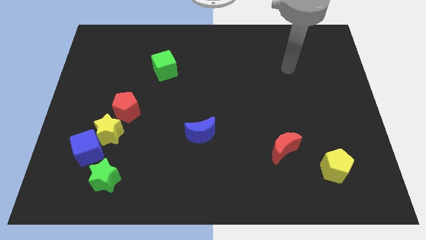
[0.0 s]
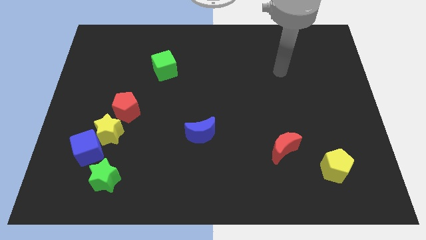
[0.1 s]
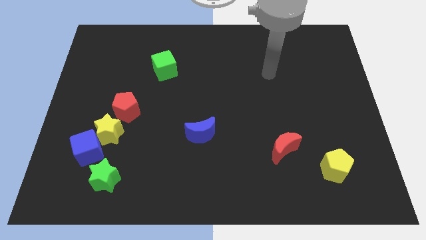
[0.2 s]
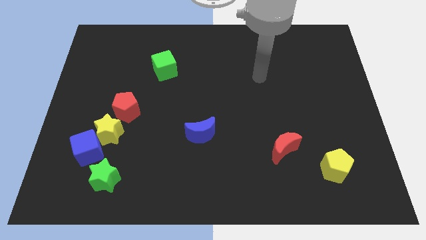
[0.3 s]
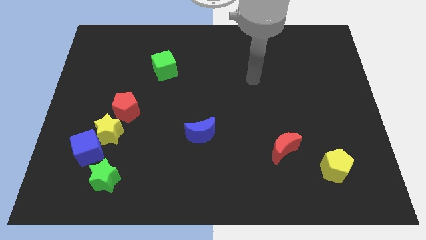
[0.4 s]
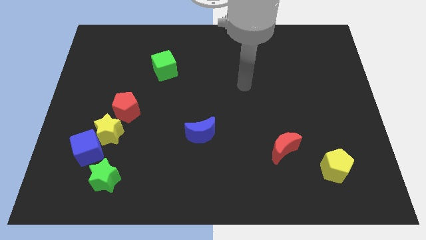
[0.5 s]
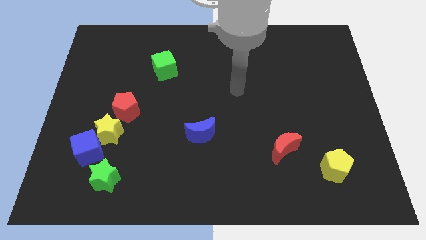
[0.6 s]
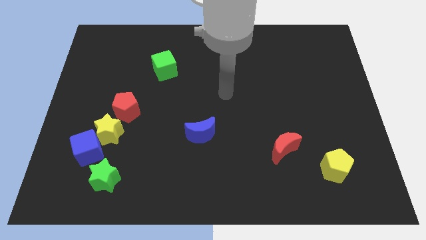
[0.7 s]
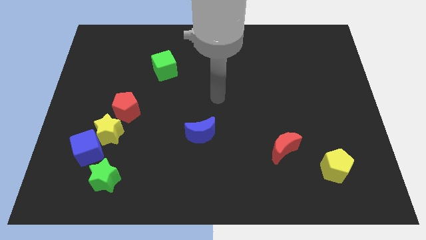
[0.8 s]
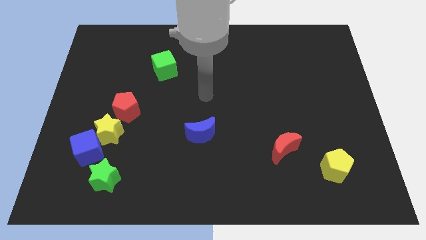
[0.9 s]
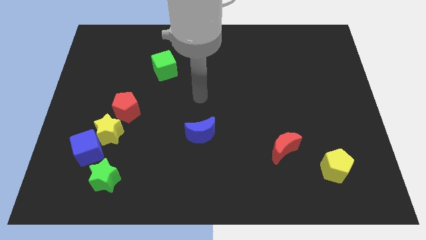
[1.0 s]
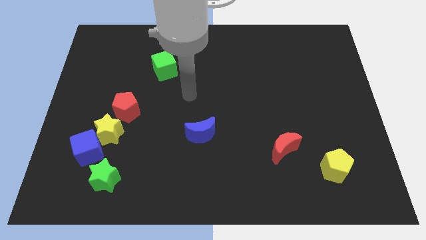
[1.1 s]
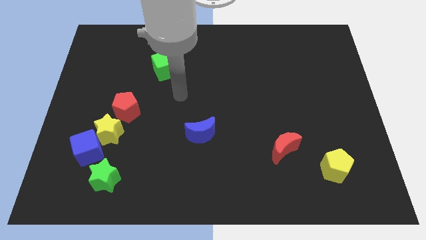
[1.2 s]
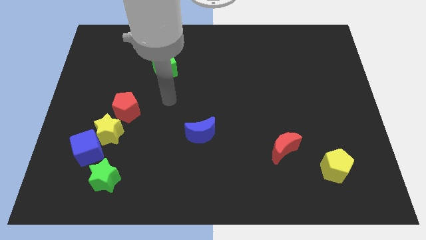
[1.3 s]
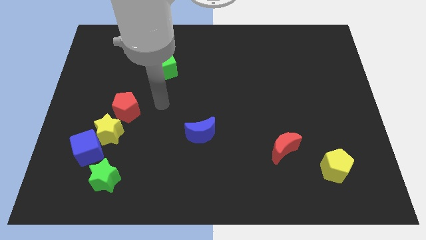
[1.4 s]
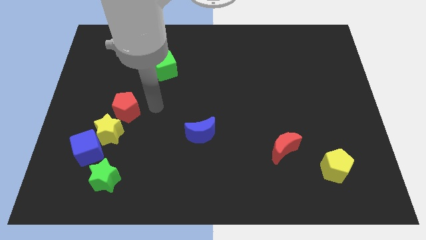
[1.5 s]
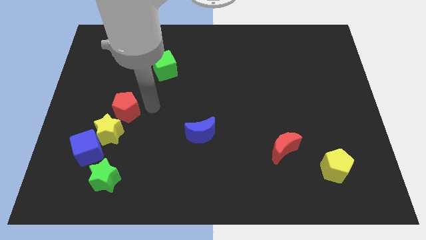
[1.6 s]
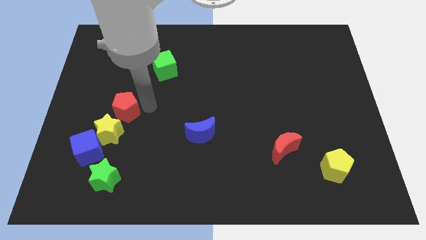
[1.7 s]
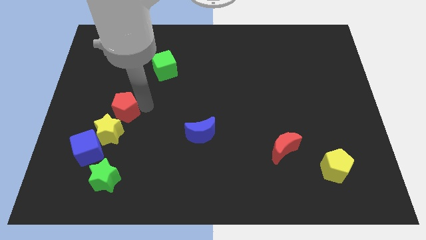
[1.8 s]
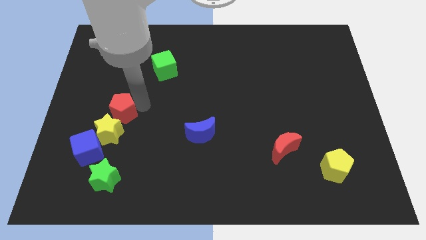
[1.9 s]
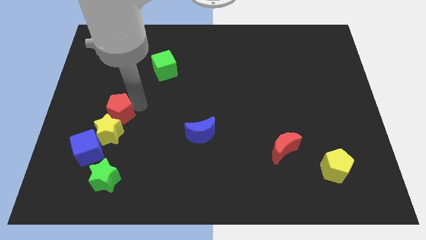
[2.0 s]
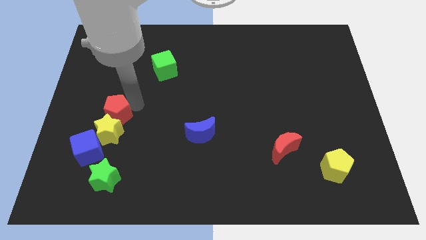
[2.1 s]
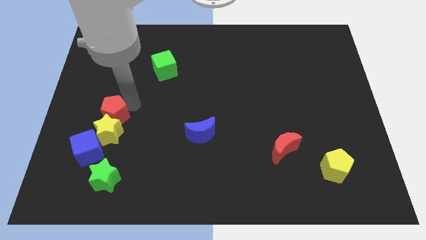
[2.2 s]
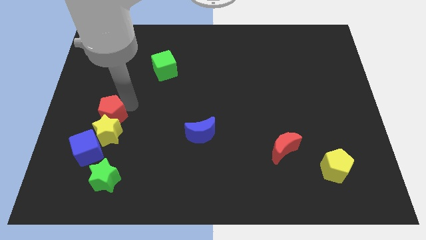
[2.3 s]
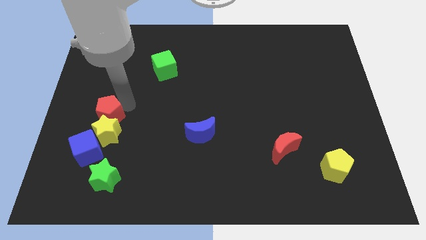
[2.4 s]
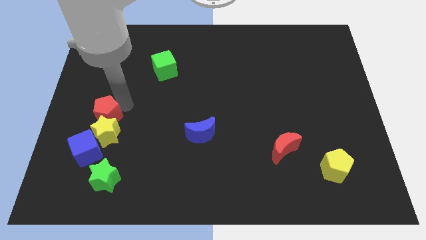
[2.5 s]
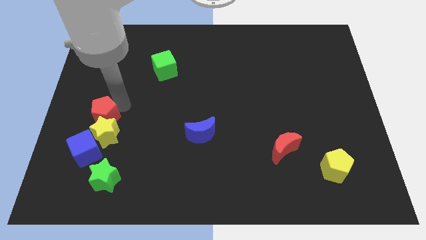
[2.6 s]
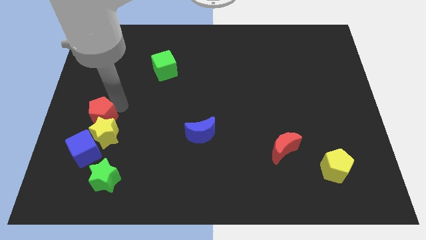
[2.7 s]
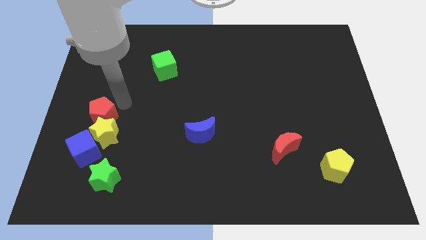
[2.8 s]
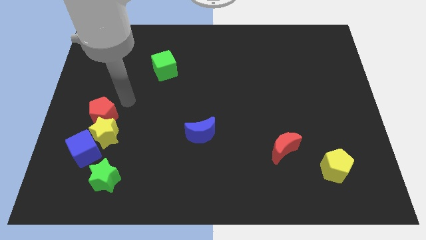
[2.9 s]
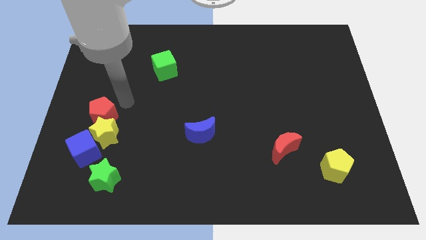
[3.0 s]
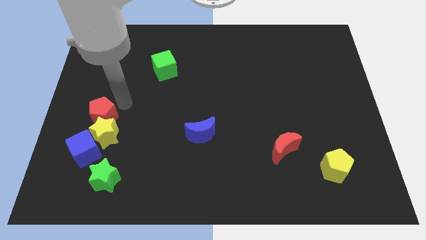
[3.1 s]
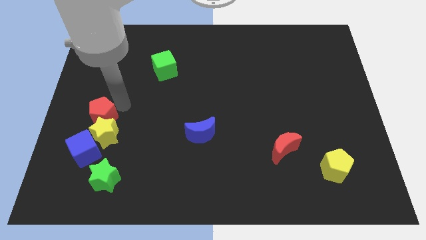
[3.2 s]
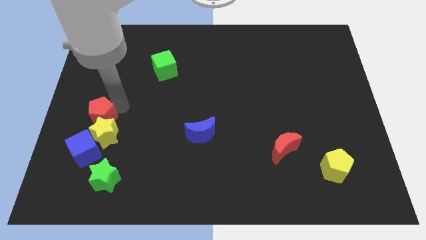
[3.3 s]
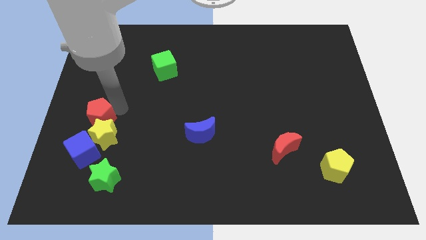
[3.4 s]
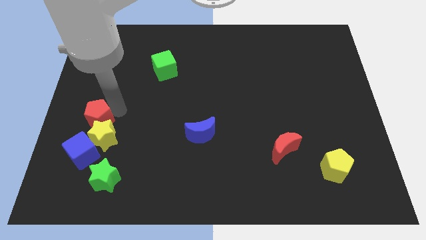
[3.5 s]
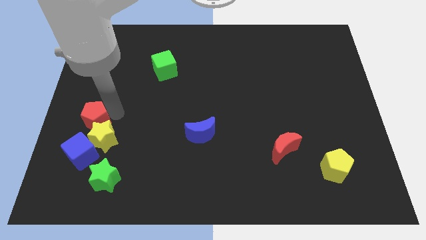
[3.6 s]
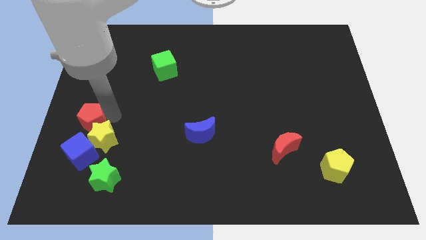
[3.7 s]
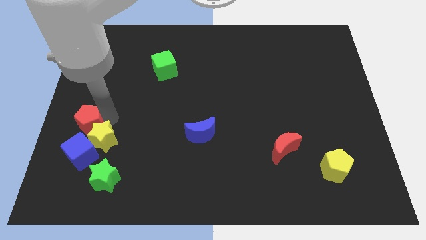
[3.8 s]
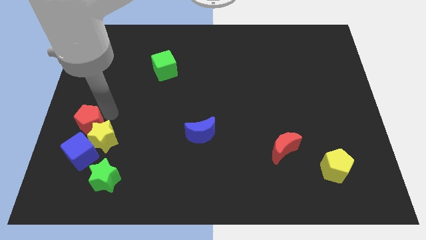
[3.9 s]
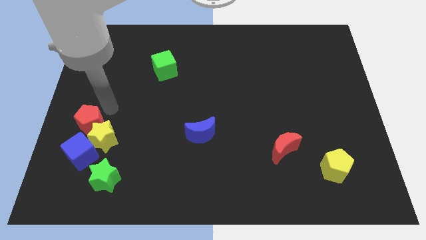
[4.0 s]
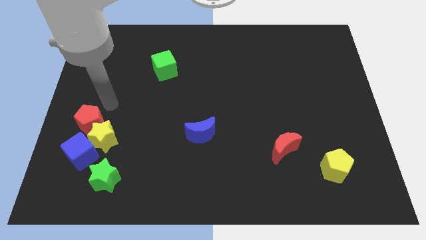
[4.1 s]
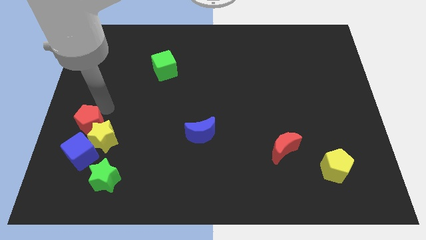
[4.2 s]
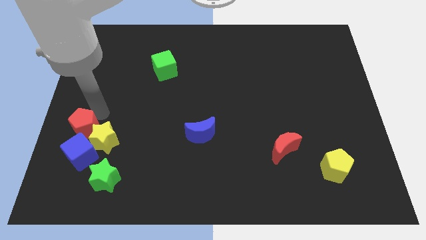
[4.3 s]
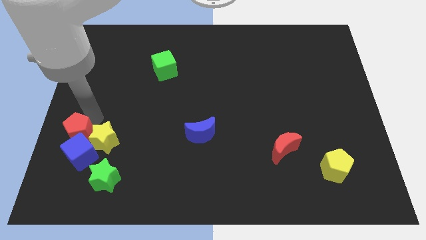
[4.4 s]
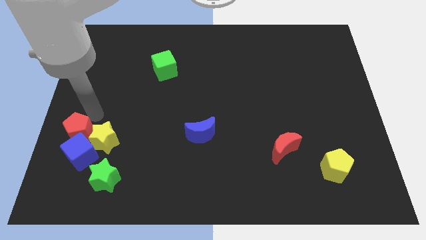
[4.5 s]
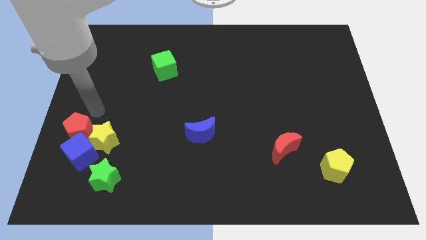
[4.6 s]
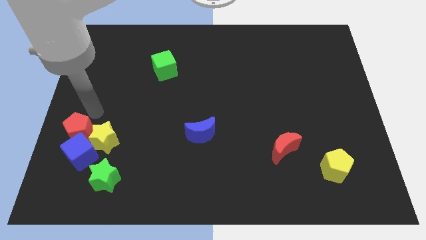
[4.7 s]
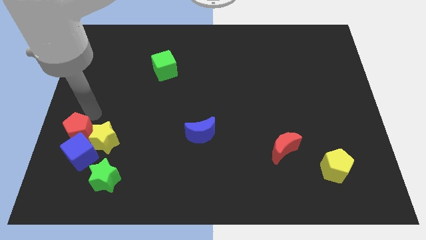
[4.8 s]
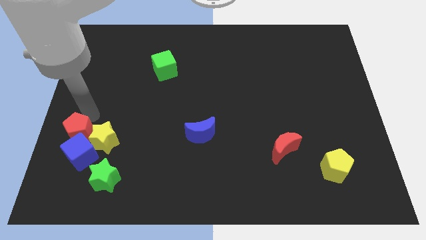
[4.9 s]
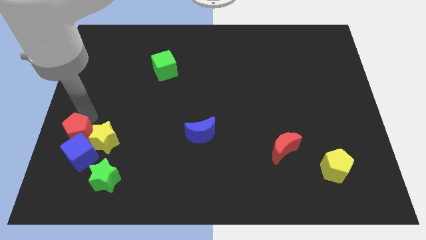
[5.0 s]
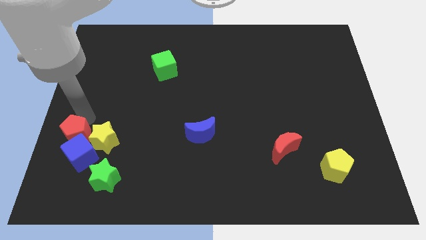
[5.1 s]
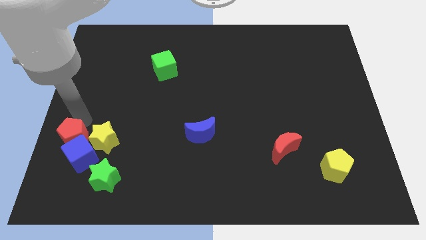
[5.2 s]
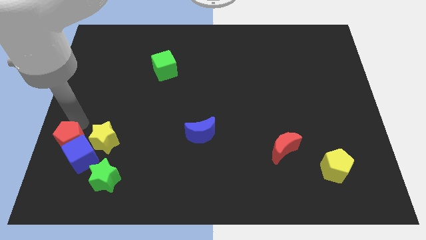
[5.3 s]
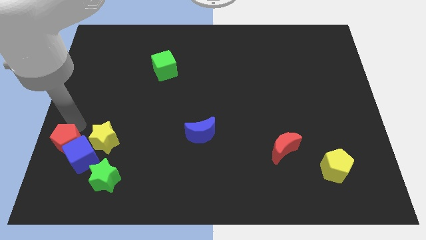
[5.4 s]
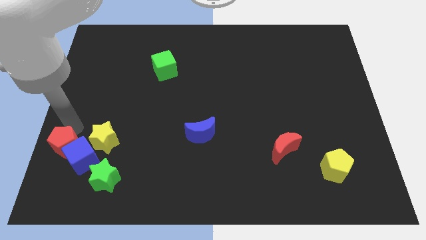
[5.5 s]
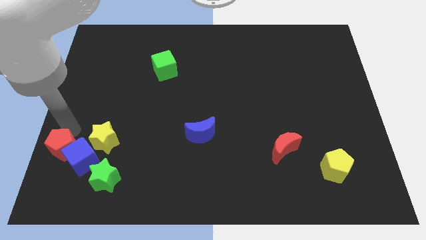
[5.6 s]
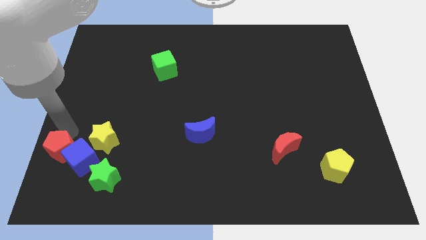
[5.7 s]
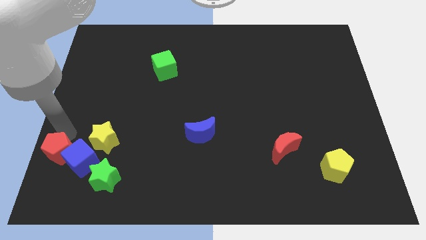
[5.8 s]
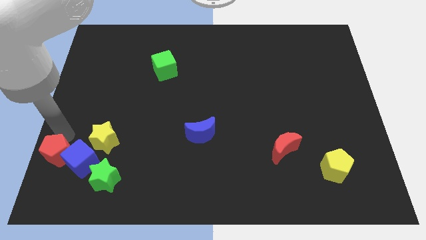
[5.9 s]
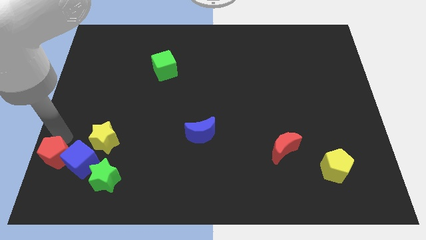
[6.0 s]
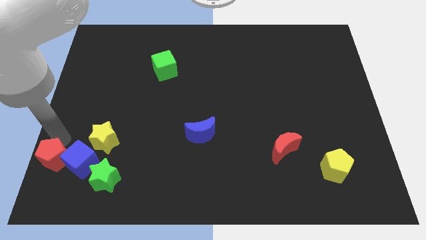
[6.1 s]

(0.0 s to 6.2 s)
move the red pentagon to the bottom left corner
